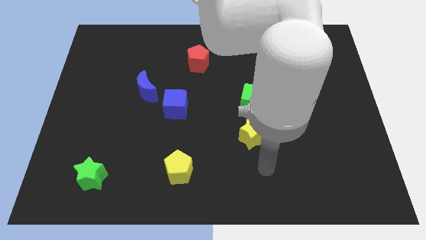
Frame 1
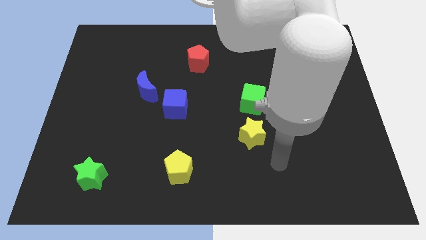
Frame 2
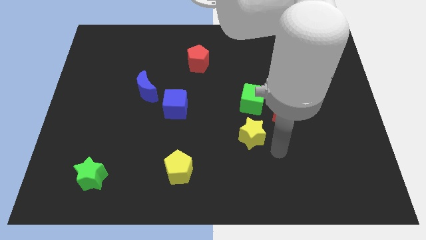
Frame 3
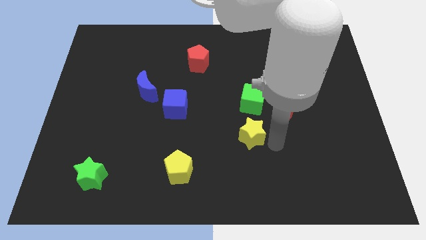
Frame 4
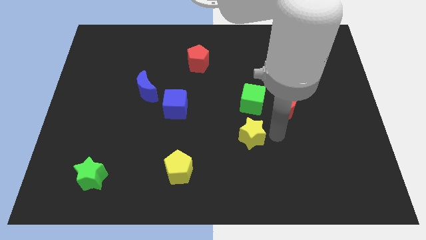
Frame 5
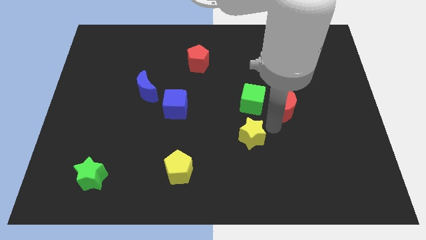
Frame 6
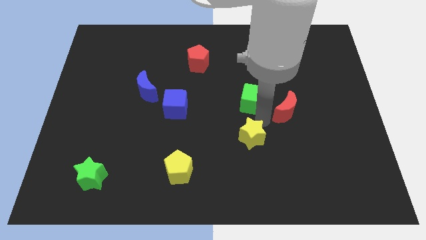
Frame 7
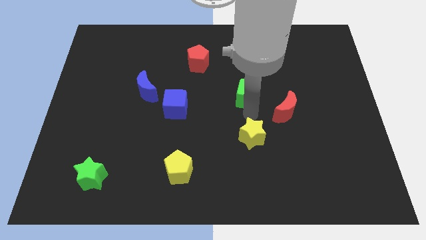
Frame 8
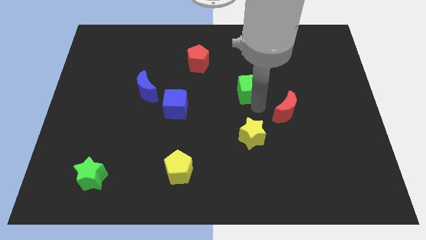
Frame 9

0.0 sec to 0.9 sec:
separate the red moon from the green cube

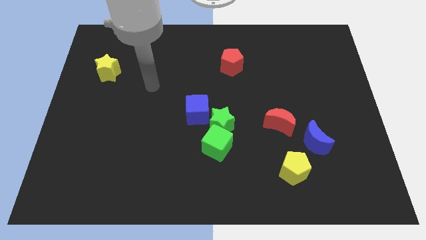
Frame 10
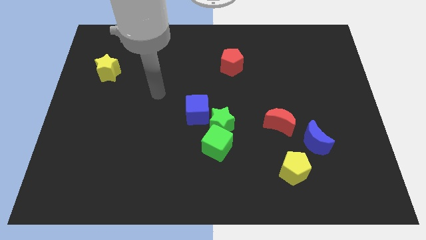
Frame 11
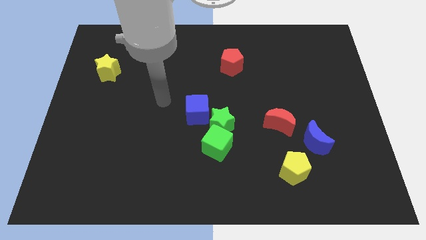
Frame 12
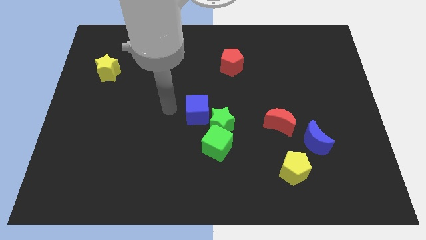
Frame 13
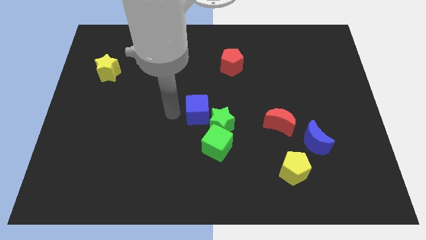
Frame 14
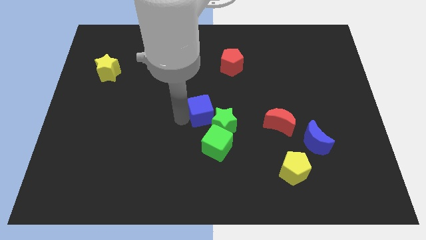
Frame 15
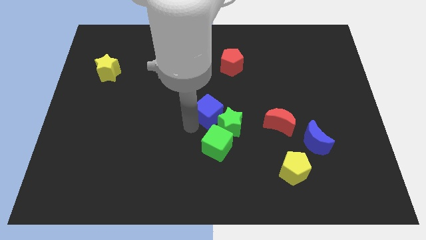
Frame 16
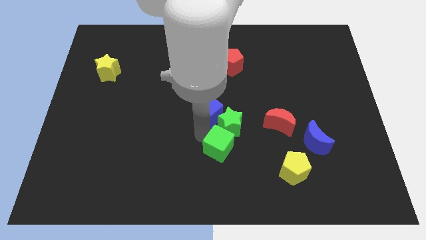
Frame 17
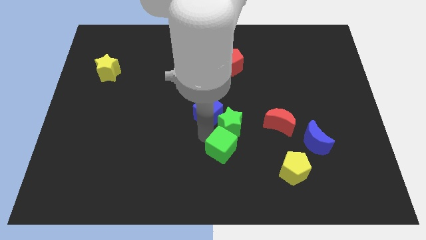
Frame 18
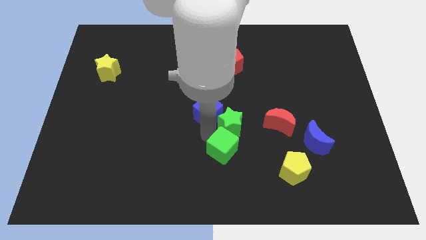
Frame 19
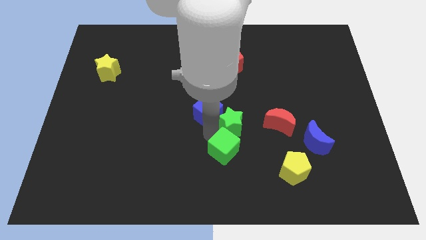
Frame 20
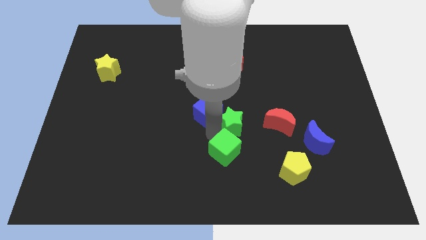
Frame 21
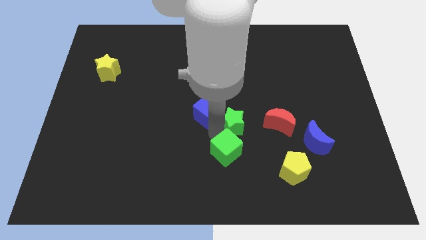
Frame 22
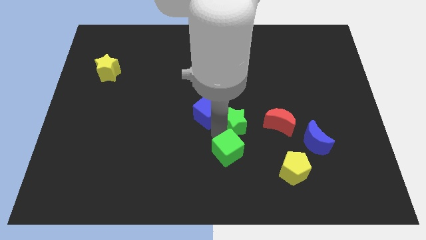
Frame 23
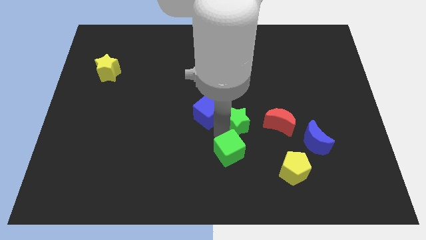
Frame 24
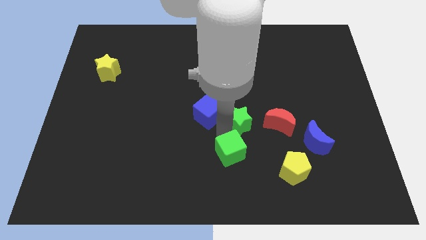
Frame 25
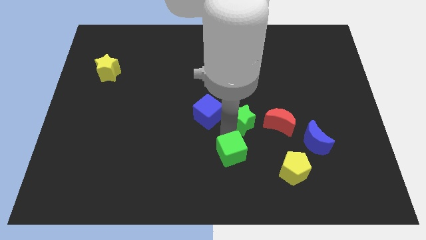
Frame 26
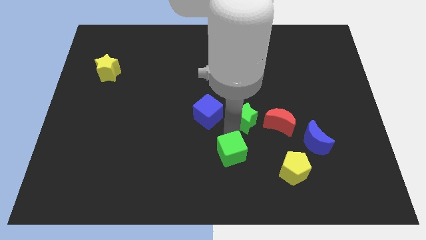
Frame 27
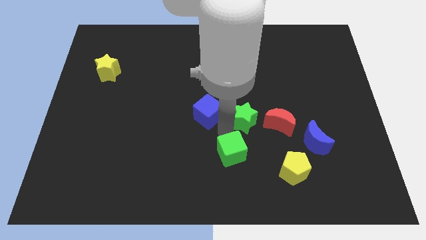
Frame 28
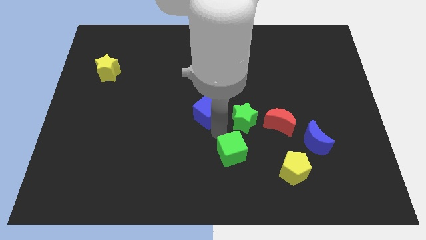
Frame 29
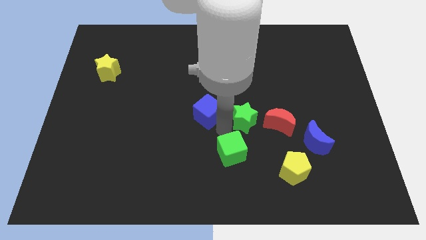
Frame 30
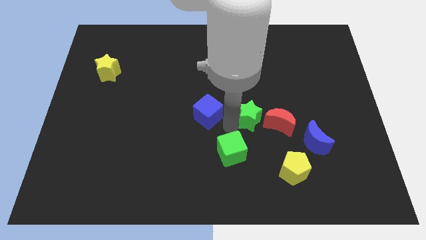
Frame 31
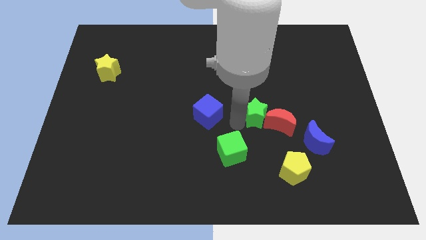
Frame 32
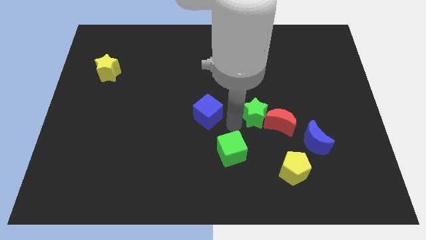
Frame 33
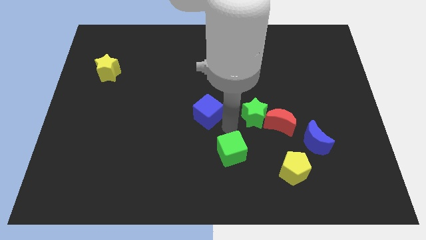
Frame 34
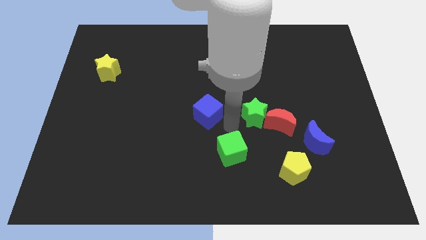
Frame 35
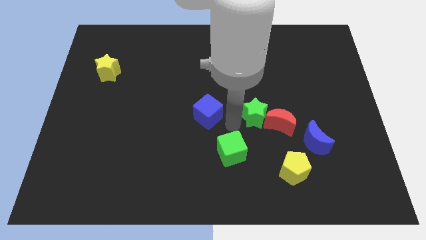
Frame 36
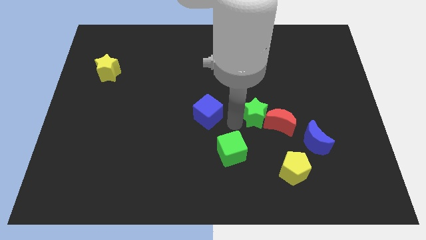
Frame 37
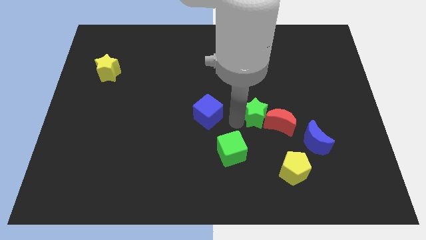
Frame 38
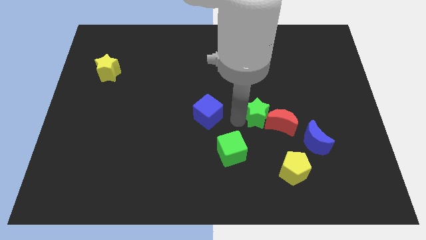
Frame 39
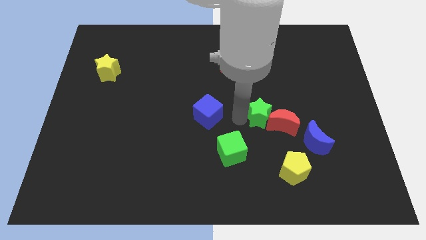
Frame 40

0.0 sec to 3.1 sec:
move the green star away from the green cube and blue cube

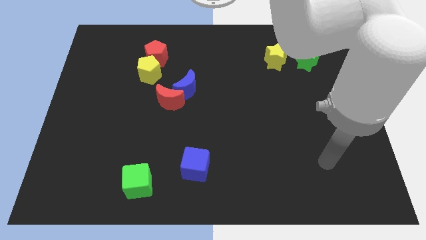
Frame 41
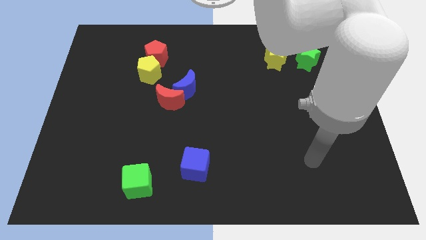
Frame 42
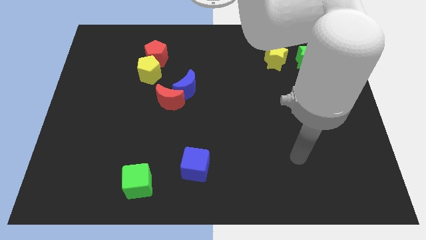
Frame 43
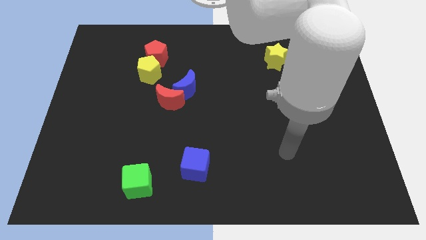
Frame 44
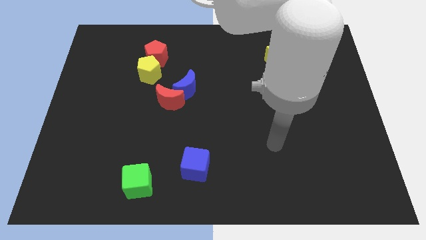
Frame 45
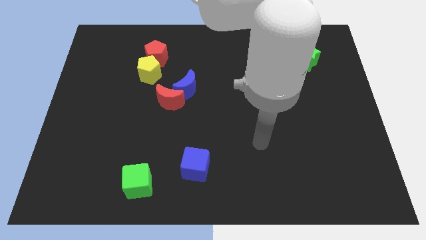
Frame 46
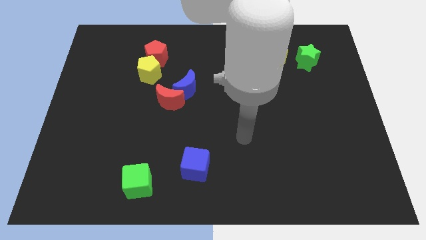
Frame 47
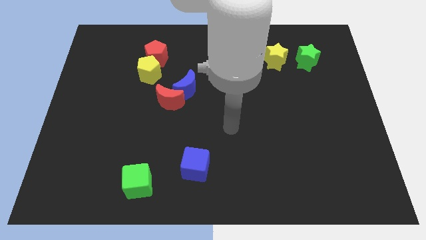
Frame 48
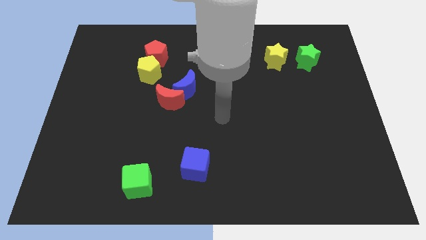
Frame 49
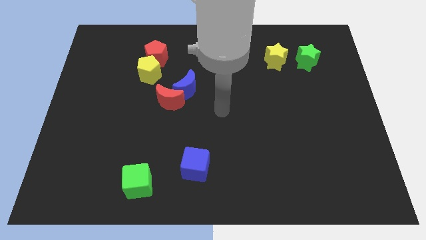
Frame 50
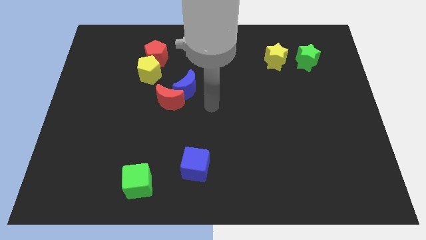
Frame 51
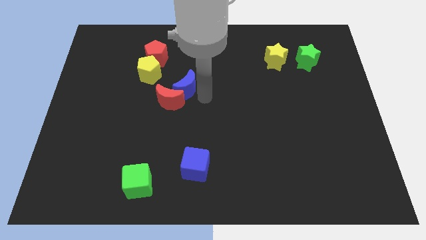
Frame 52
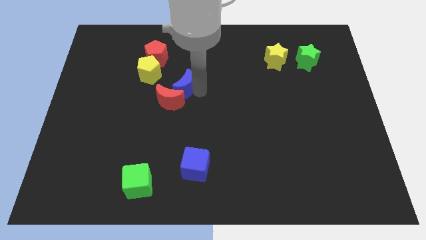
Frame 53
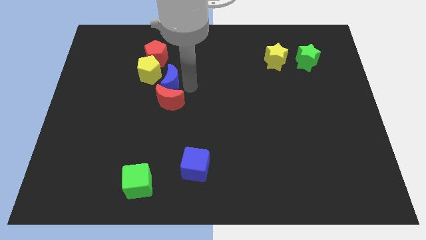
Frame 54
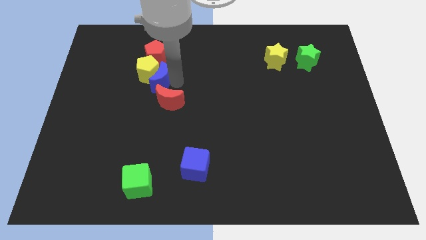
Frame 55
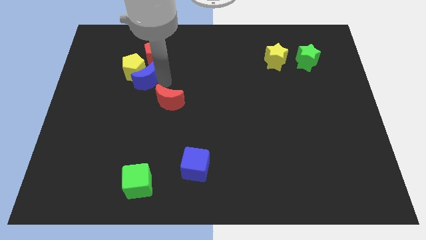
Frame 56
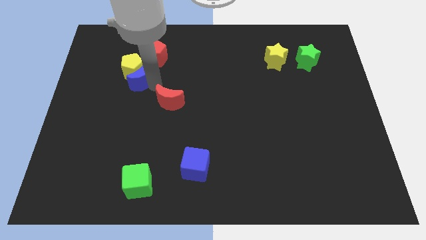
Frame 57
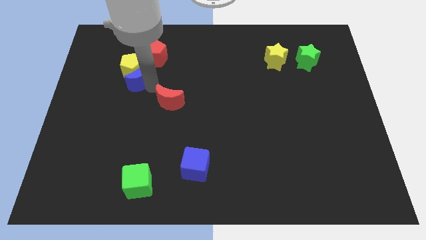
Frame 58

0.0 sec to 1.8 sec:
move the red moon away from the blue moon

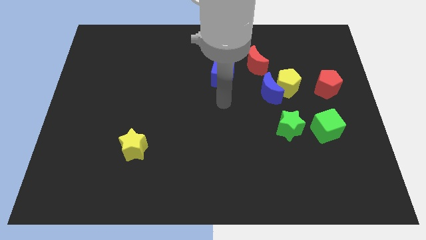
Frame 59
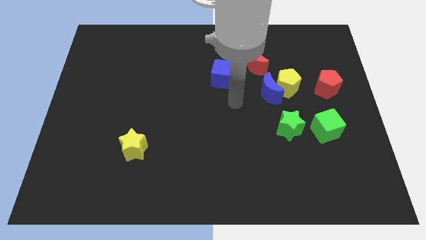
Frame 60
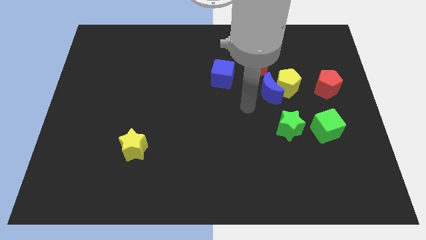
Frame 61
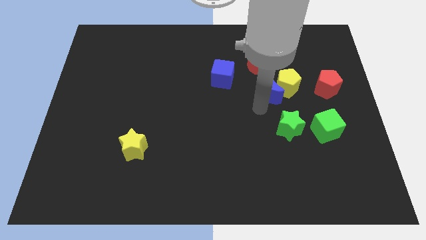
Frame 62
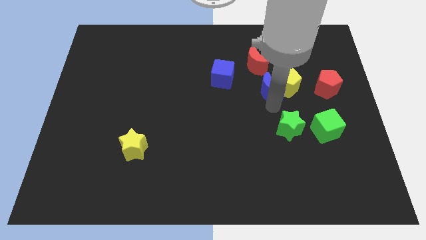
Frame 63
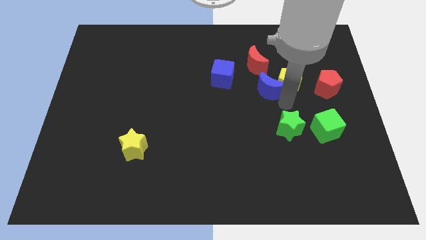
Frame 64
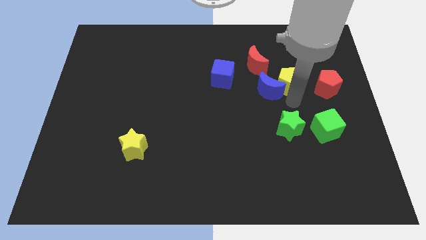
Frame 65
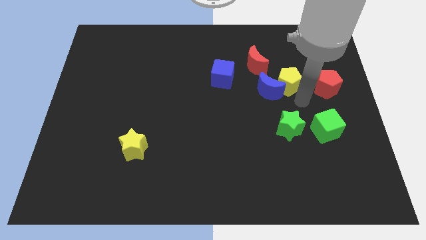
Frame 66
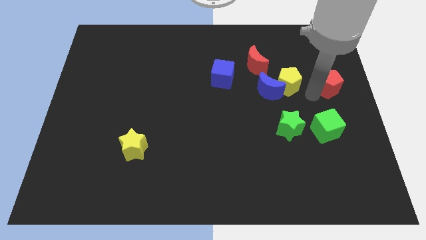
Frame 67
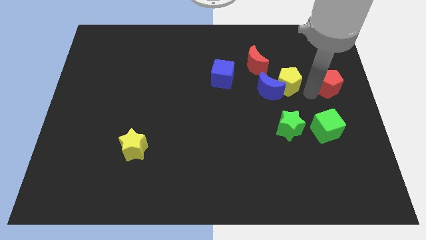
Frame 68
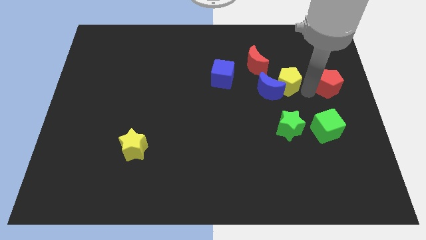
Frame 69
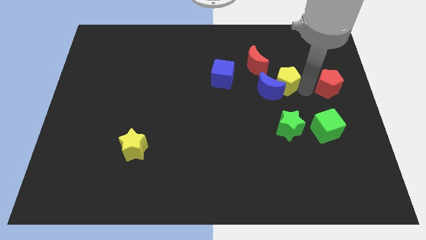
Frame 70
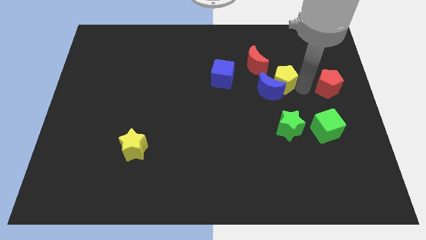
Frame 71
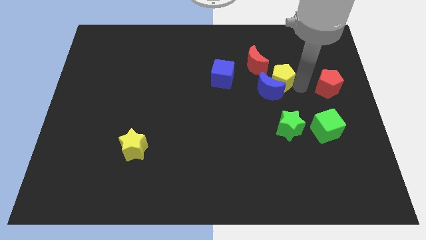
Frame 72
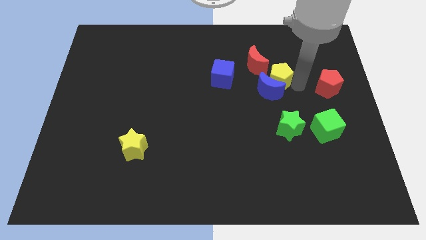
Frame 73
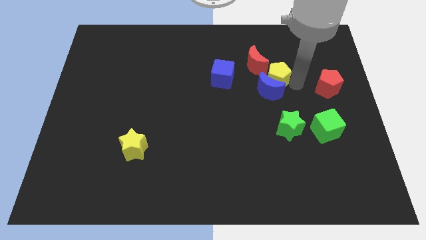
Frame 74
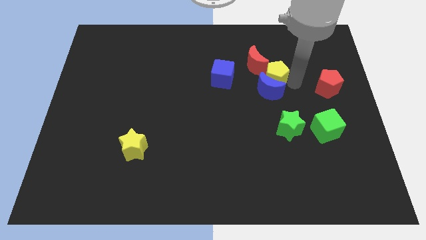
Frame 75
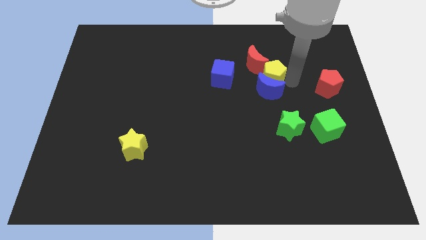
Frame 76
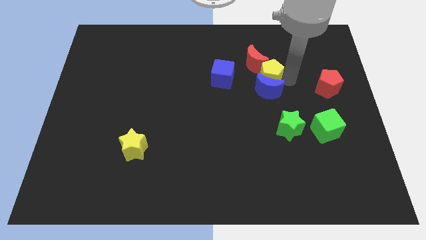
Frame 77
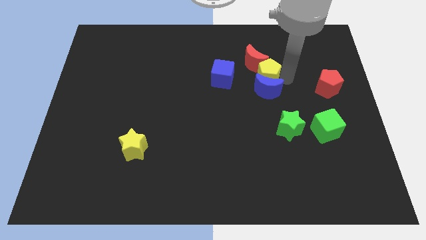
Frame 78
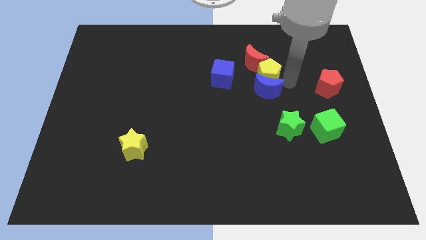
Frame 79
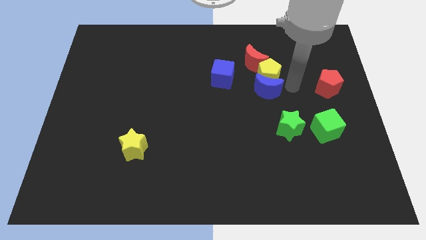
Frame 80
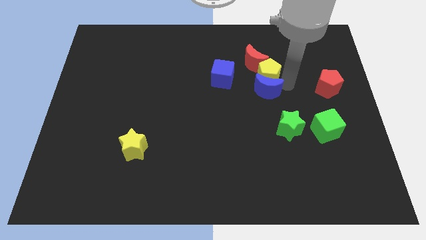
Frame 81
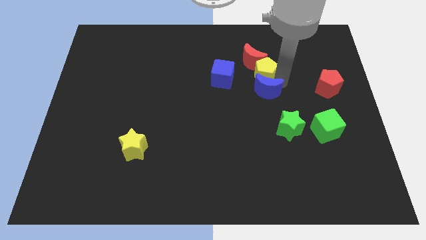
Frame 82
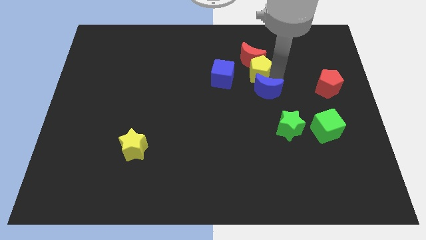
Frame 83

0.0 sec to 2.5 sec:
pull the yellow pentagon apart from the blue moon and red pentagon

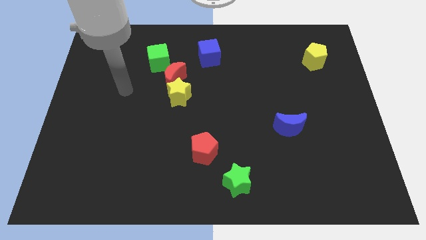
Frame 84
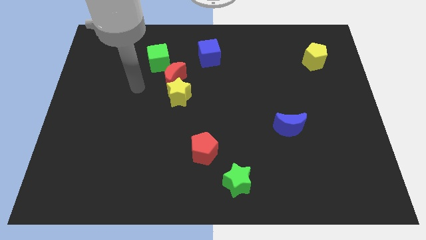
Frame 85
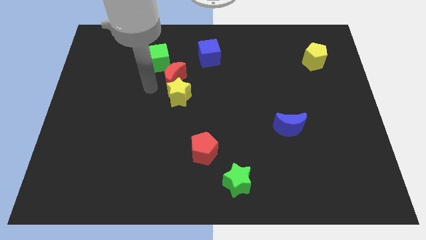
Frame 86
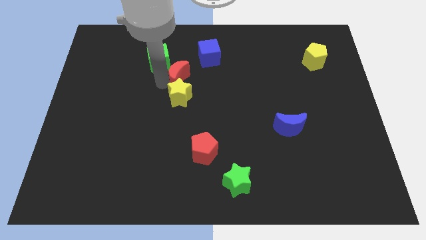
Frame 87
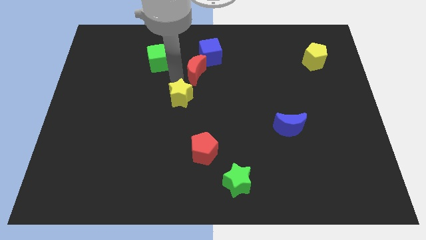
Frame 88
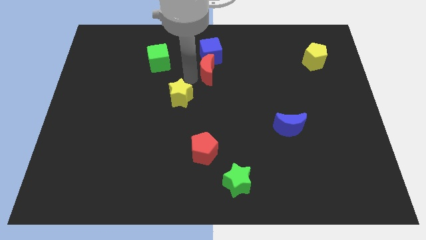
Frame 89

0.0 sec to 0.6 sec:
separate the yellow star from the red moon

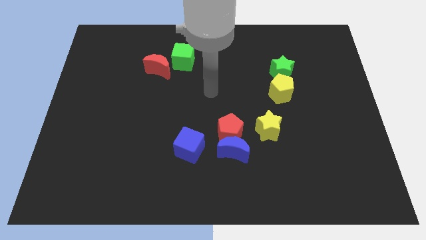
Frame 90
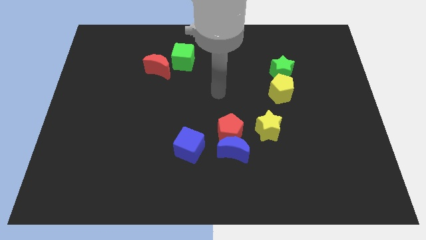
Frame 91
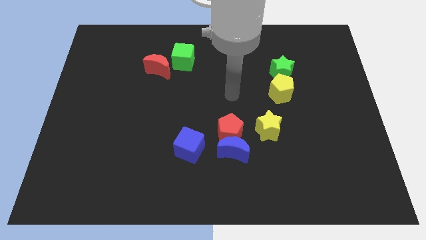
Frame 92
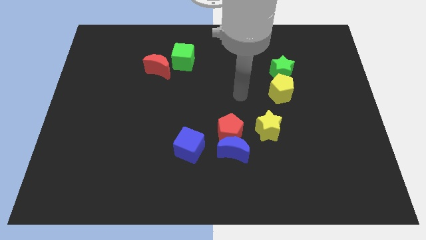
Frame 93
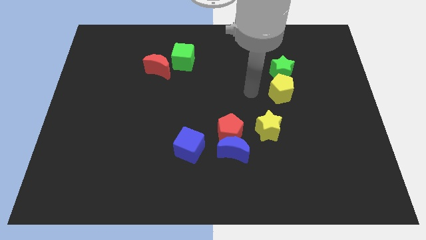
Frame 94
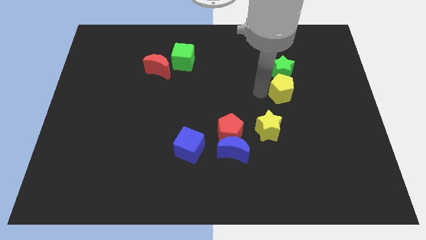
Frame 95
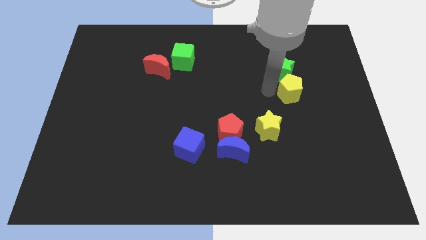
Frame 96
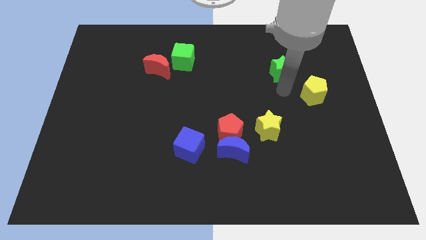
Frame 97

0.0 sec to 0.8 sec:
separate the green star from the yellow pentagon
